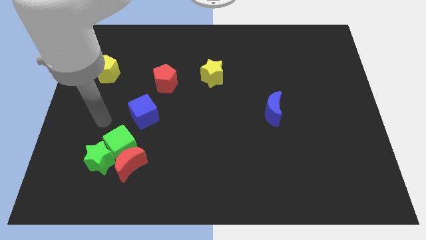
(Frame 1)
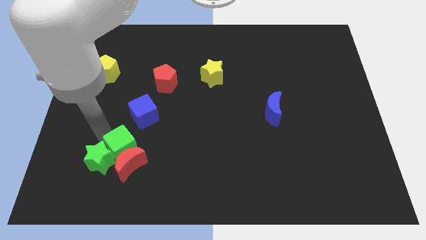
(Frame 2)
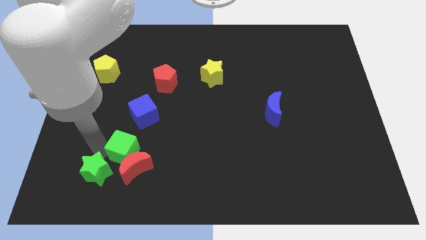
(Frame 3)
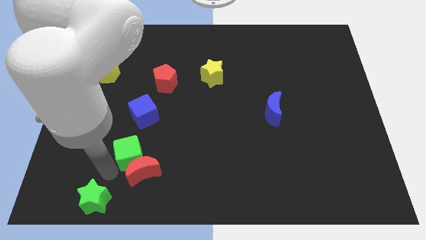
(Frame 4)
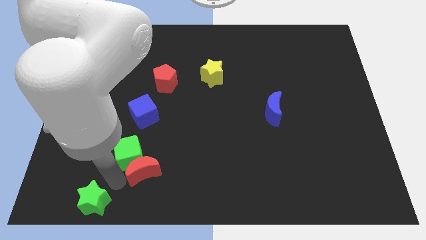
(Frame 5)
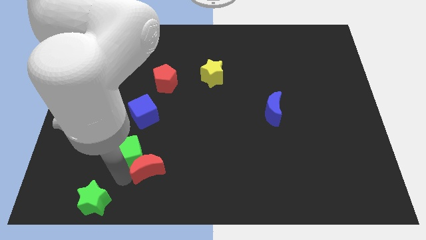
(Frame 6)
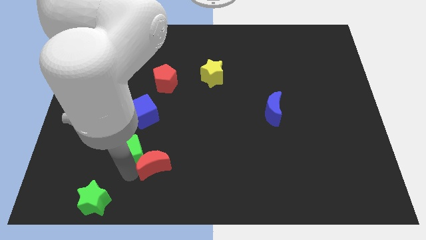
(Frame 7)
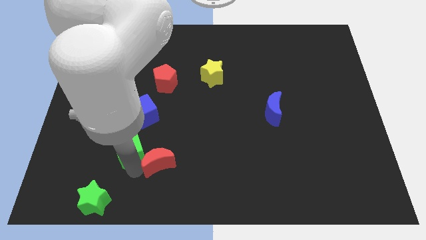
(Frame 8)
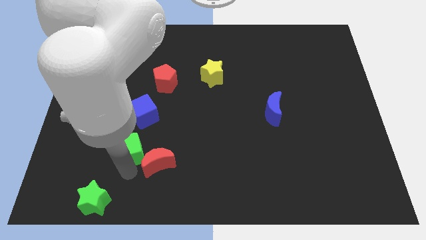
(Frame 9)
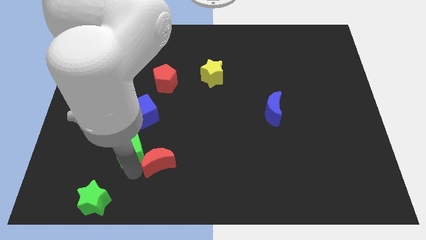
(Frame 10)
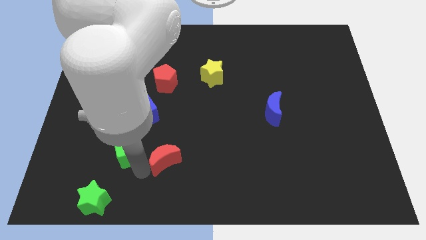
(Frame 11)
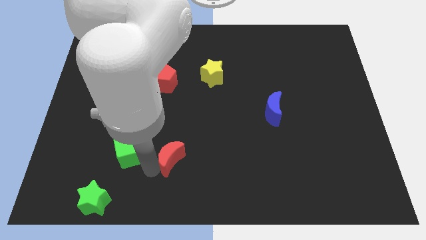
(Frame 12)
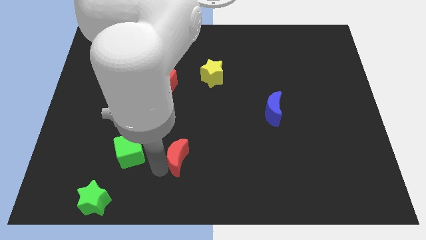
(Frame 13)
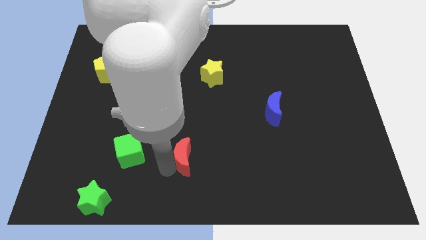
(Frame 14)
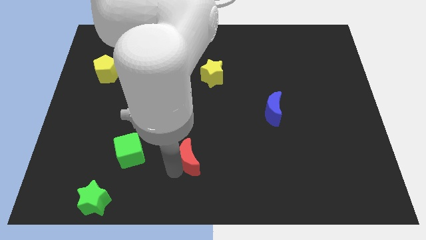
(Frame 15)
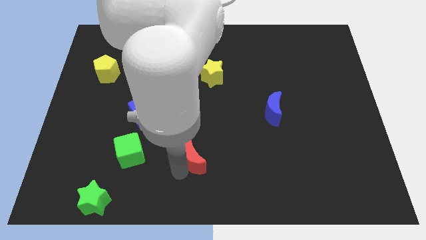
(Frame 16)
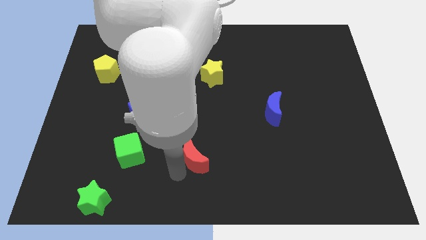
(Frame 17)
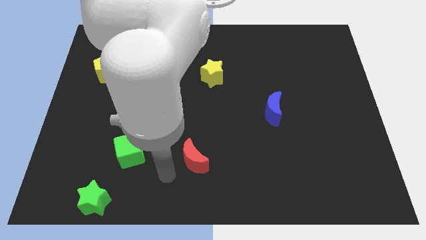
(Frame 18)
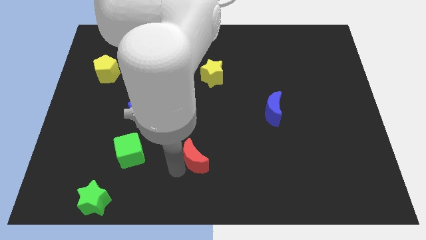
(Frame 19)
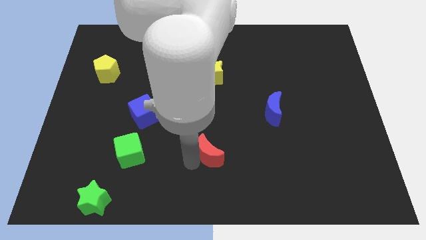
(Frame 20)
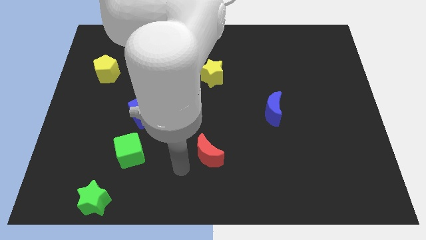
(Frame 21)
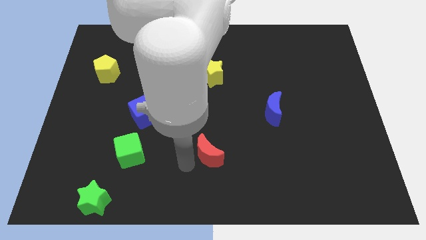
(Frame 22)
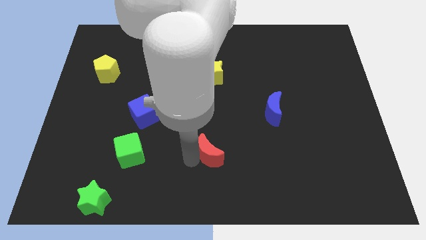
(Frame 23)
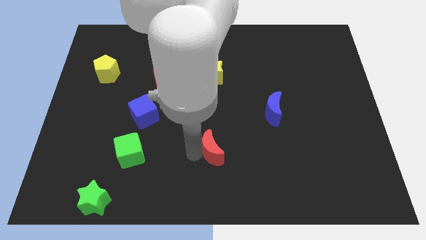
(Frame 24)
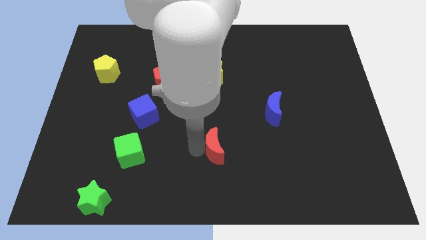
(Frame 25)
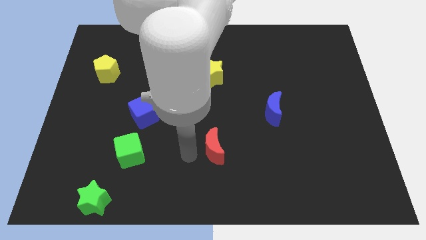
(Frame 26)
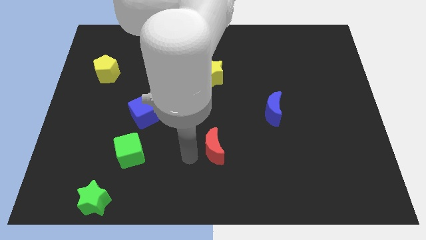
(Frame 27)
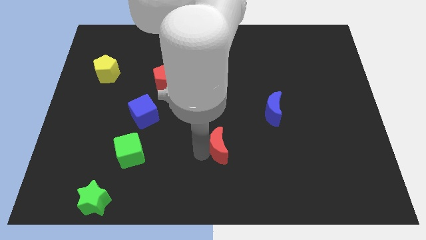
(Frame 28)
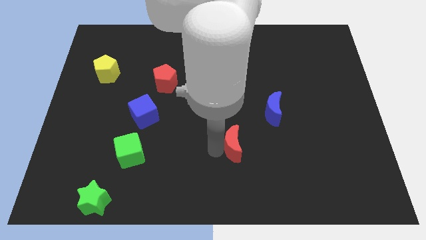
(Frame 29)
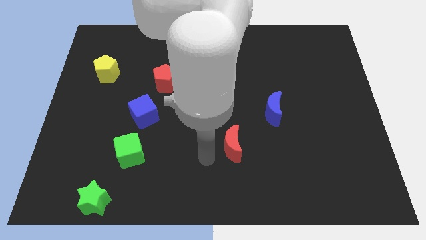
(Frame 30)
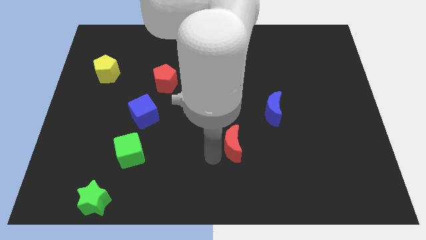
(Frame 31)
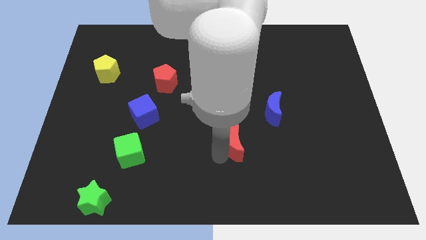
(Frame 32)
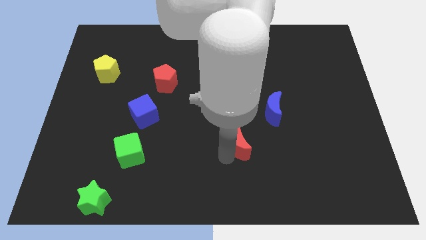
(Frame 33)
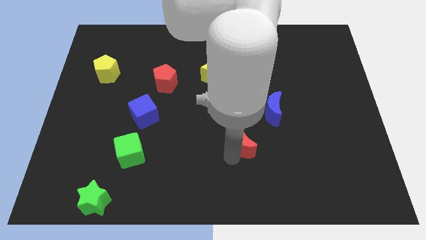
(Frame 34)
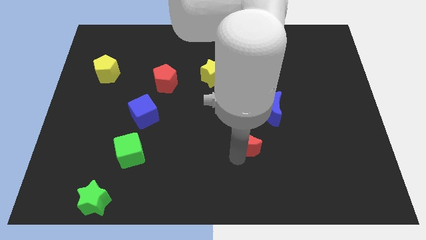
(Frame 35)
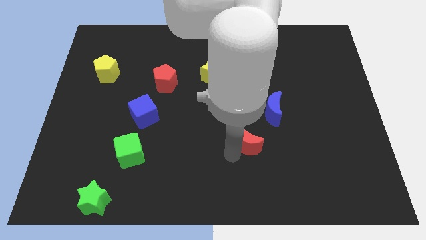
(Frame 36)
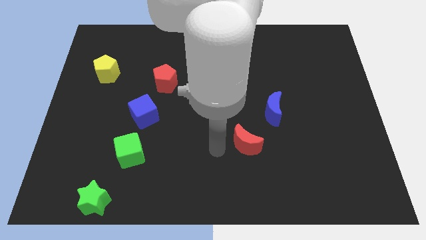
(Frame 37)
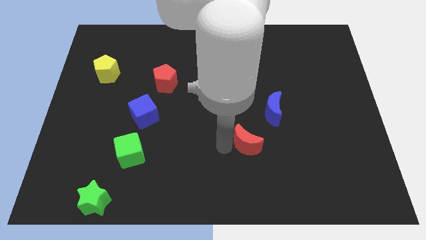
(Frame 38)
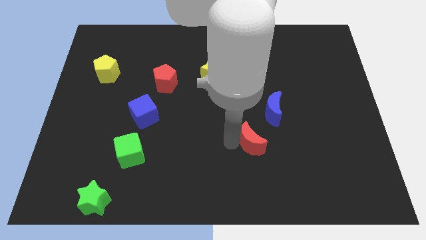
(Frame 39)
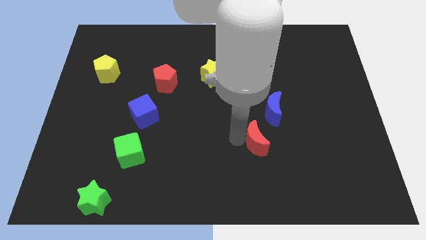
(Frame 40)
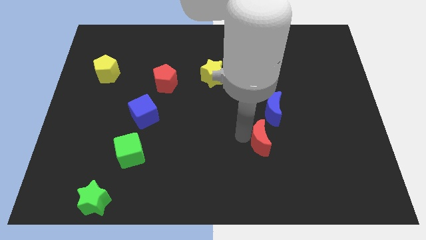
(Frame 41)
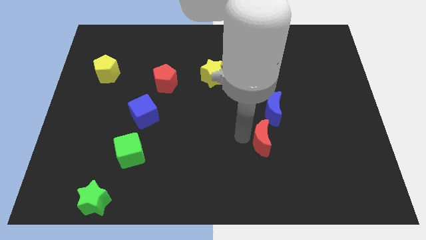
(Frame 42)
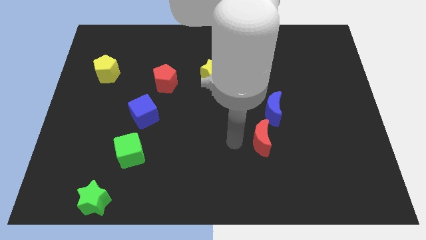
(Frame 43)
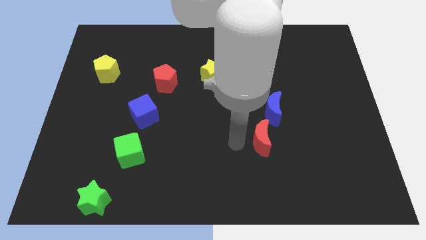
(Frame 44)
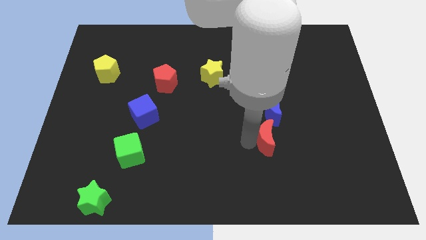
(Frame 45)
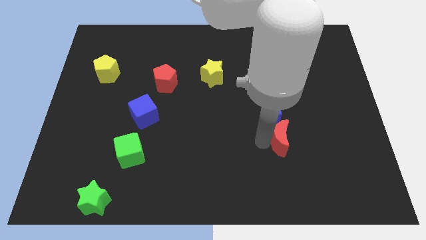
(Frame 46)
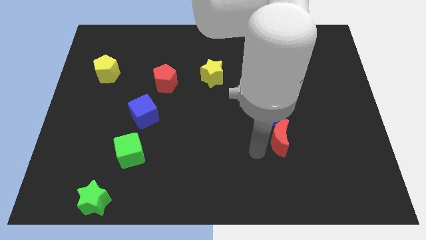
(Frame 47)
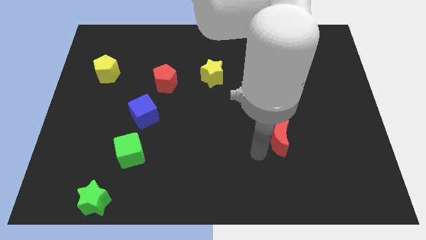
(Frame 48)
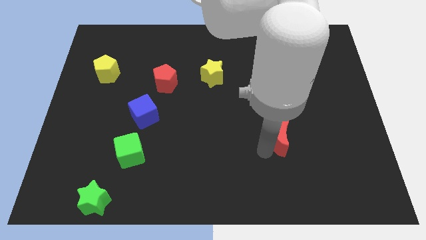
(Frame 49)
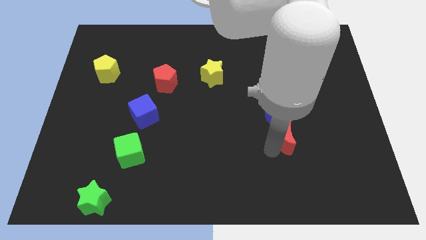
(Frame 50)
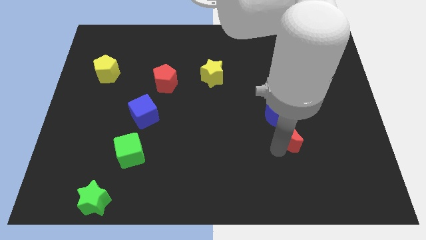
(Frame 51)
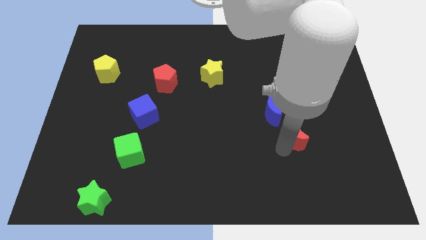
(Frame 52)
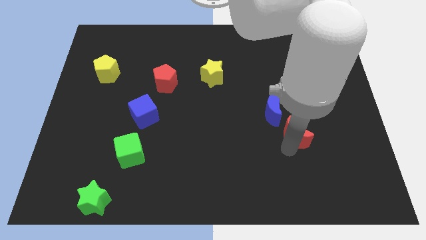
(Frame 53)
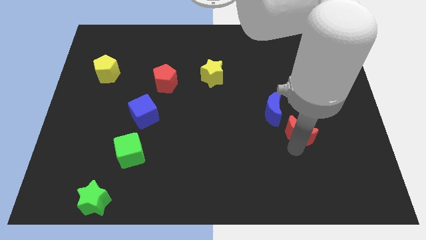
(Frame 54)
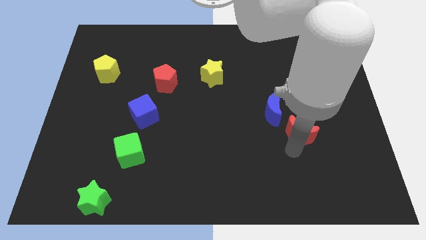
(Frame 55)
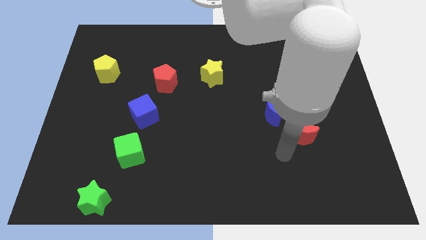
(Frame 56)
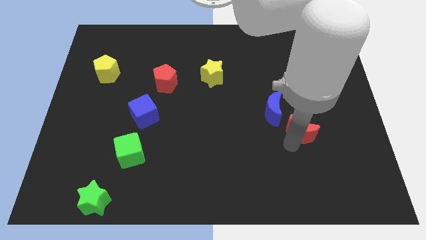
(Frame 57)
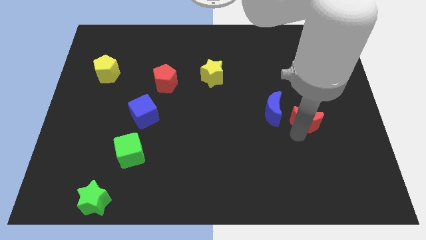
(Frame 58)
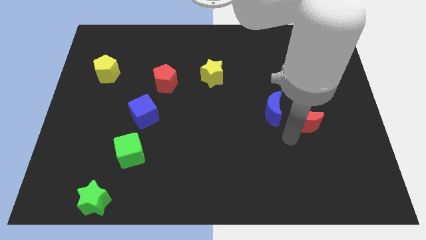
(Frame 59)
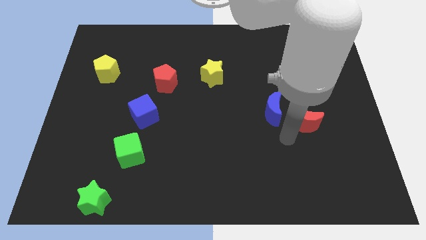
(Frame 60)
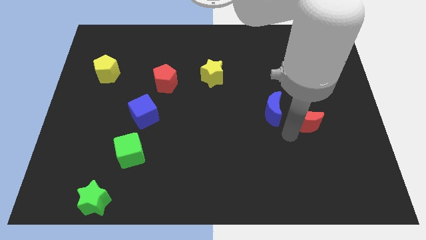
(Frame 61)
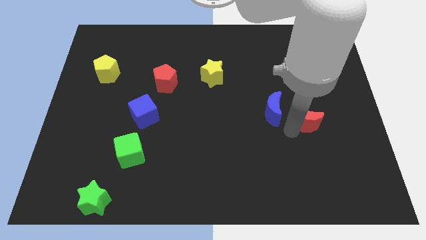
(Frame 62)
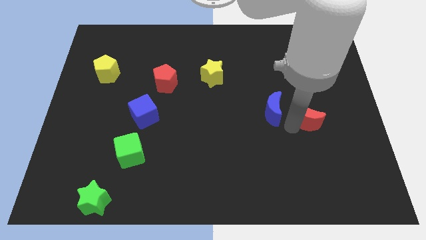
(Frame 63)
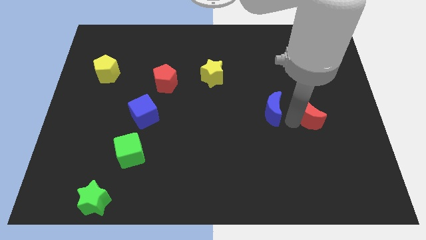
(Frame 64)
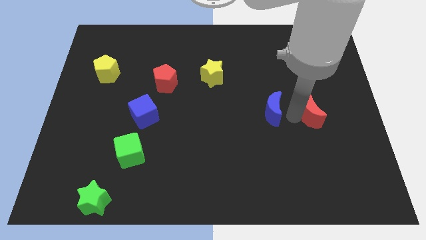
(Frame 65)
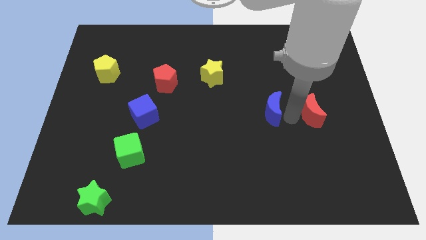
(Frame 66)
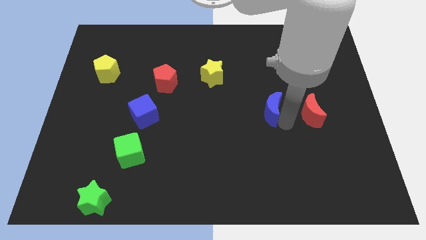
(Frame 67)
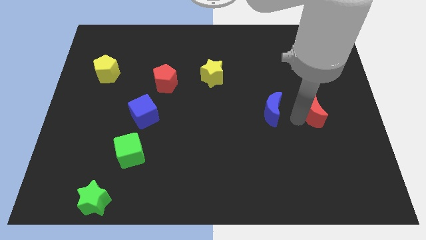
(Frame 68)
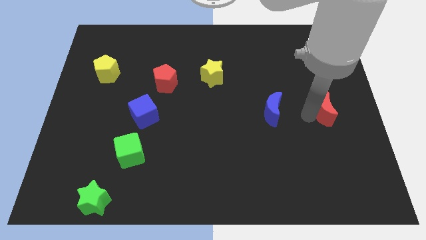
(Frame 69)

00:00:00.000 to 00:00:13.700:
put the red moon to the right side of the board
